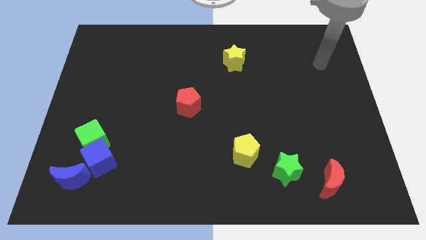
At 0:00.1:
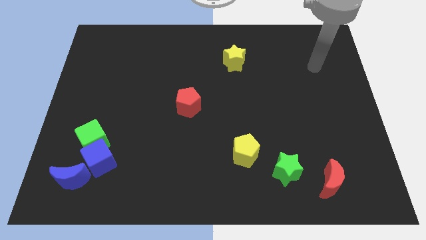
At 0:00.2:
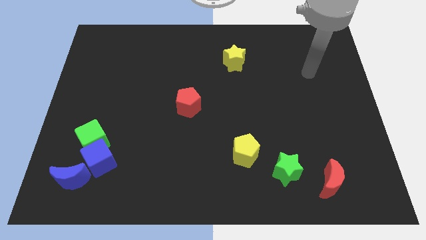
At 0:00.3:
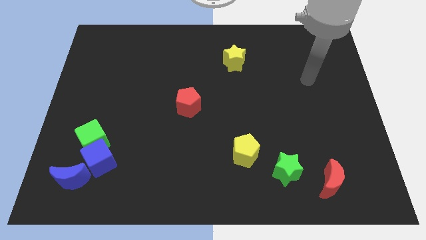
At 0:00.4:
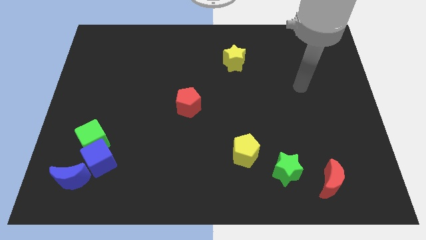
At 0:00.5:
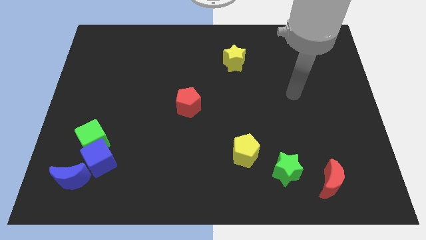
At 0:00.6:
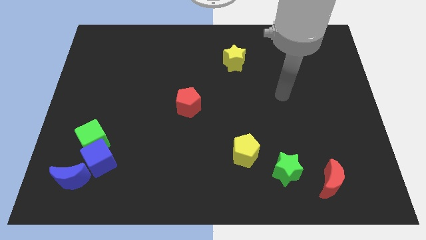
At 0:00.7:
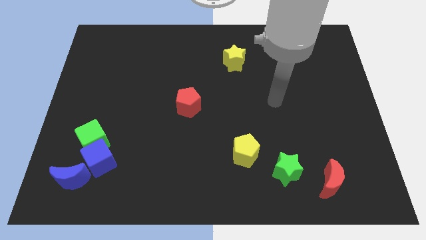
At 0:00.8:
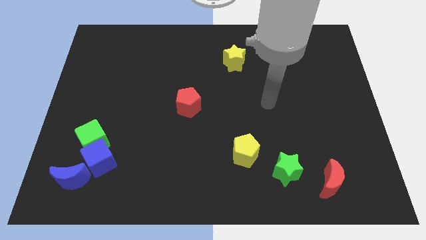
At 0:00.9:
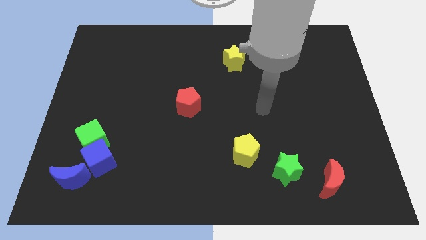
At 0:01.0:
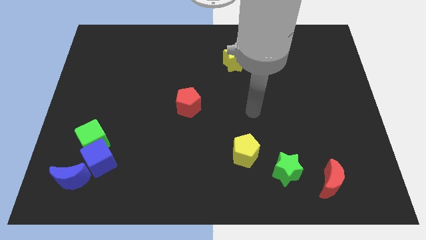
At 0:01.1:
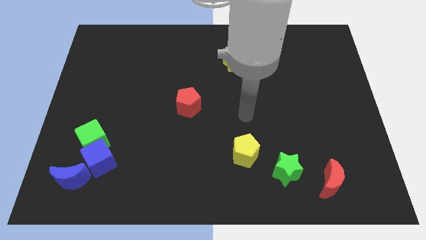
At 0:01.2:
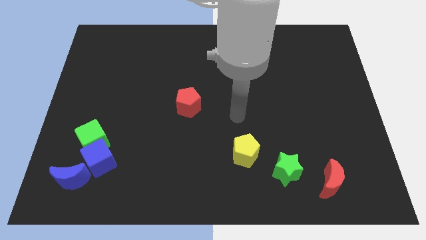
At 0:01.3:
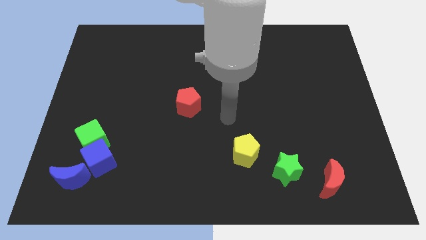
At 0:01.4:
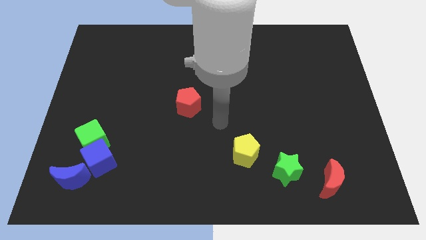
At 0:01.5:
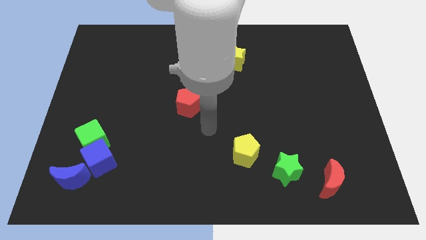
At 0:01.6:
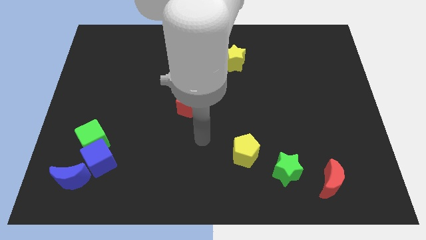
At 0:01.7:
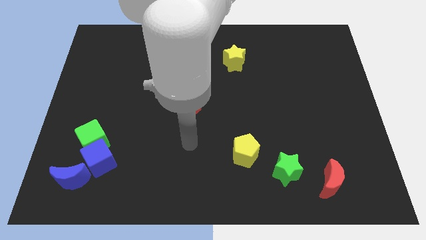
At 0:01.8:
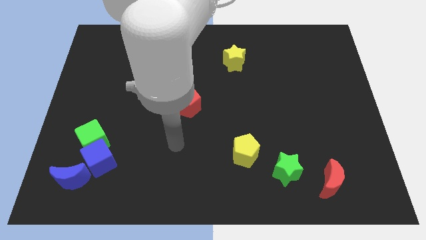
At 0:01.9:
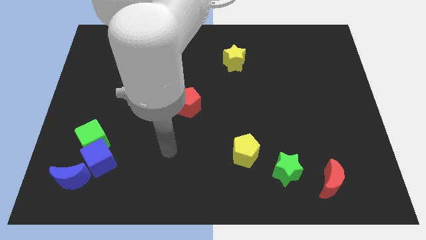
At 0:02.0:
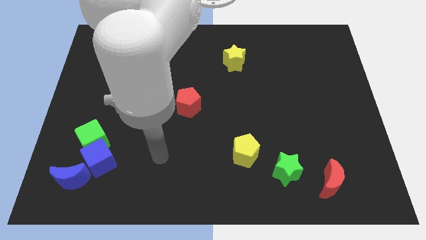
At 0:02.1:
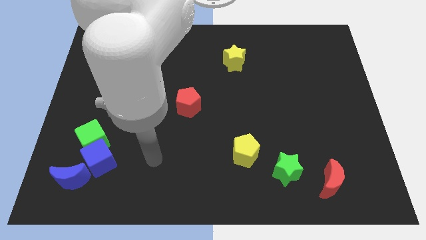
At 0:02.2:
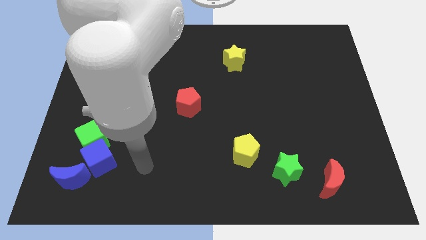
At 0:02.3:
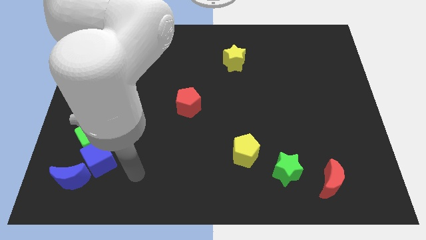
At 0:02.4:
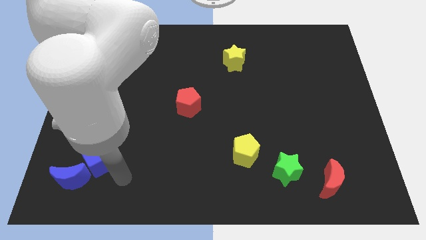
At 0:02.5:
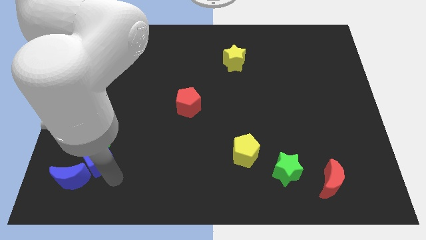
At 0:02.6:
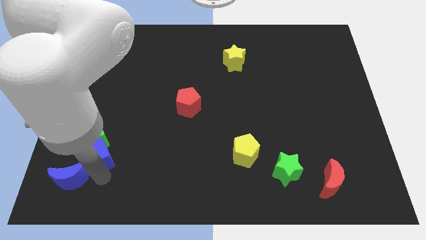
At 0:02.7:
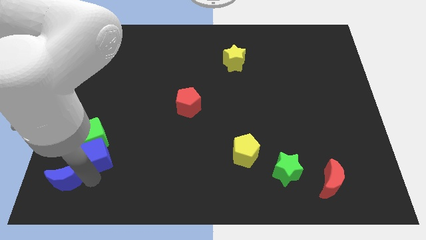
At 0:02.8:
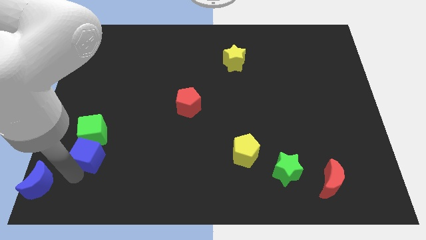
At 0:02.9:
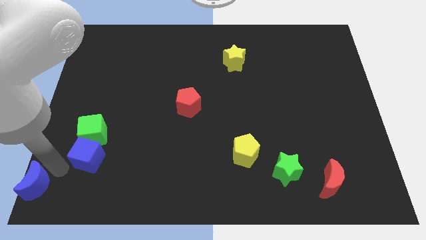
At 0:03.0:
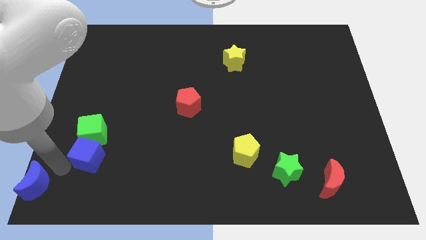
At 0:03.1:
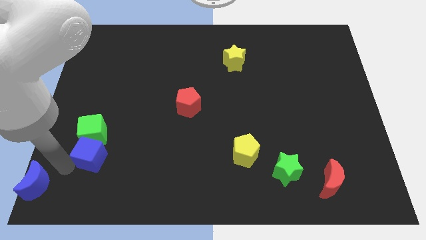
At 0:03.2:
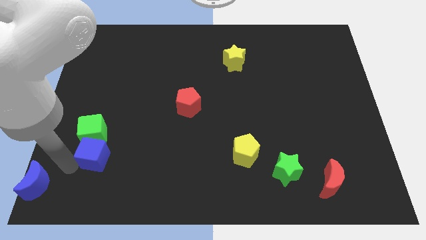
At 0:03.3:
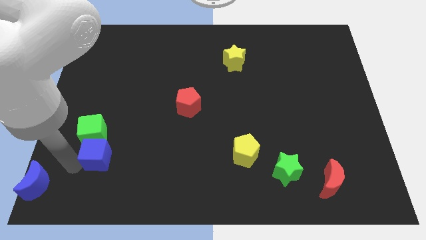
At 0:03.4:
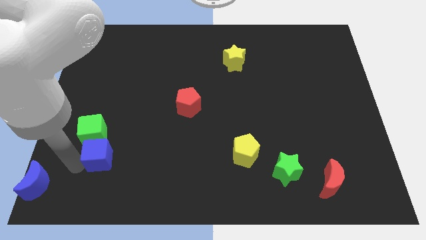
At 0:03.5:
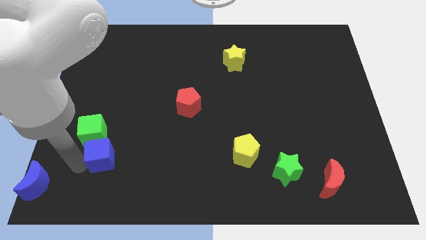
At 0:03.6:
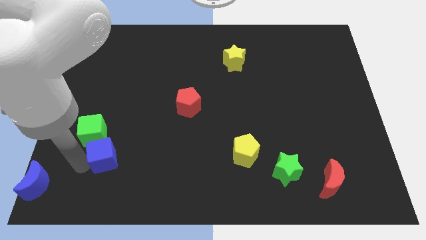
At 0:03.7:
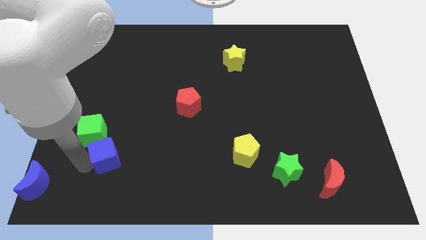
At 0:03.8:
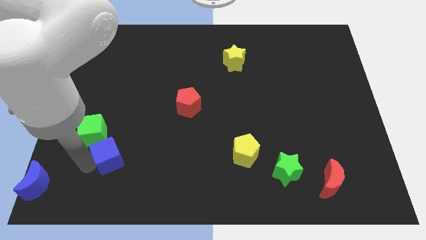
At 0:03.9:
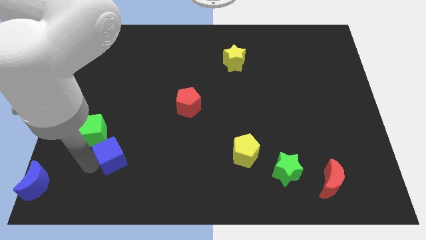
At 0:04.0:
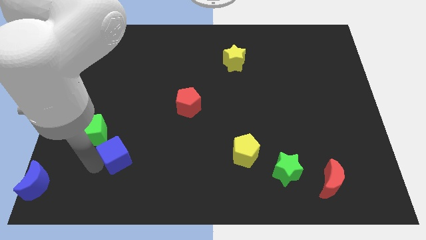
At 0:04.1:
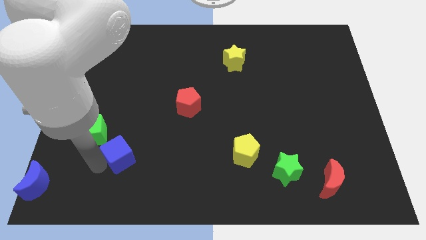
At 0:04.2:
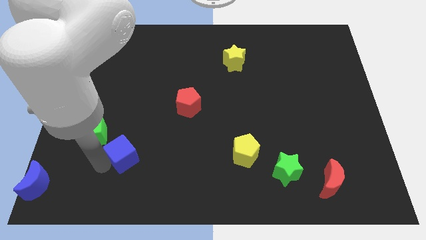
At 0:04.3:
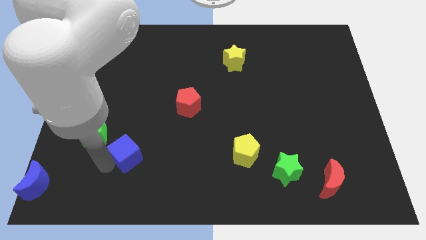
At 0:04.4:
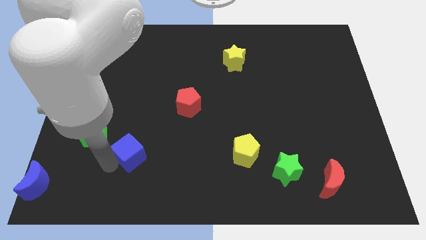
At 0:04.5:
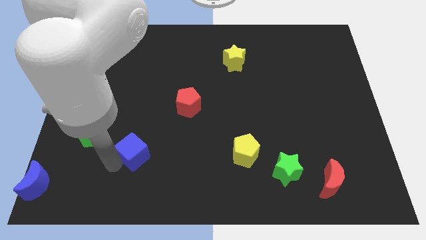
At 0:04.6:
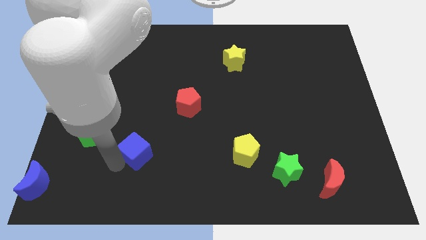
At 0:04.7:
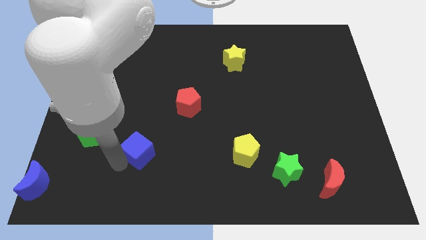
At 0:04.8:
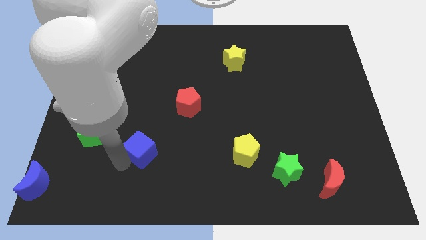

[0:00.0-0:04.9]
slightly slide the blue cube diagonally upwards and to the right
